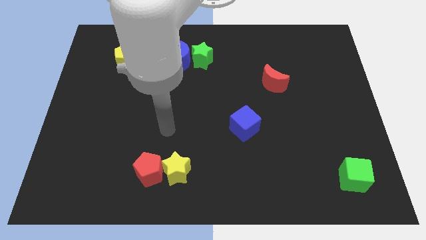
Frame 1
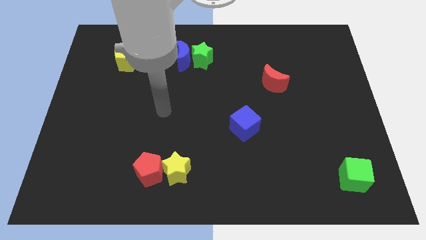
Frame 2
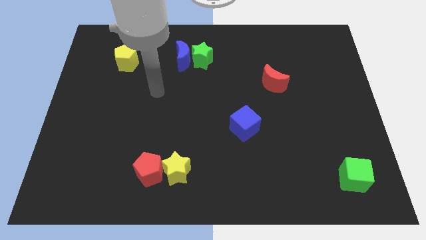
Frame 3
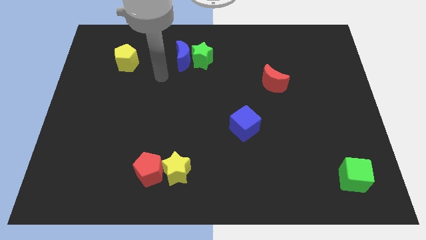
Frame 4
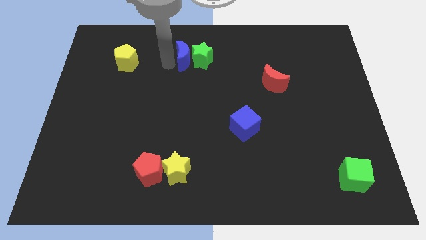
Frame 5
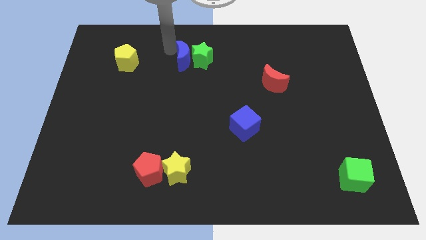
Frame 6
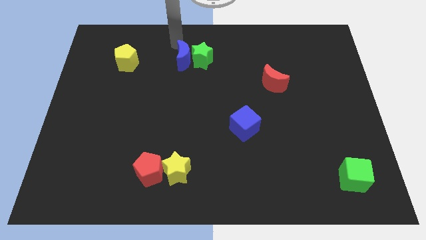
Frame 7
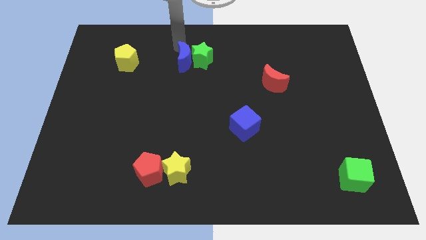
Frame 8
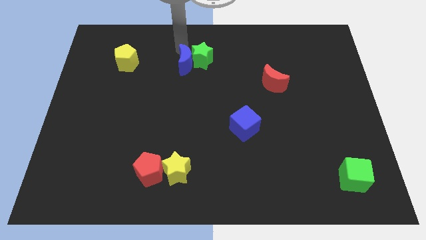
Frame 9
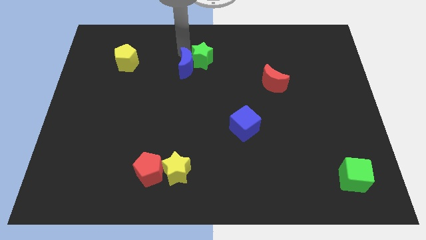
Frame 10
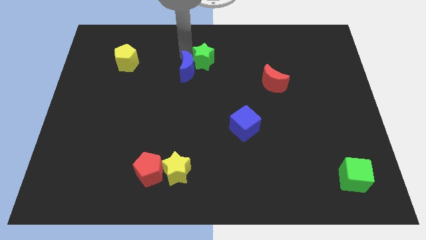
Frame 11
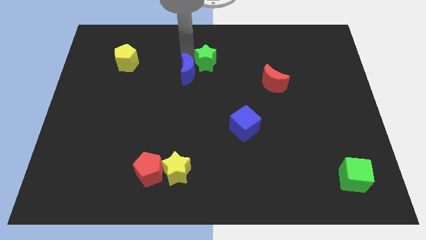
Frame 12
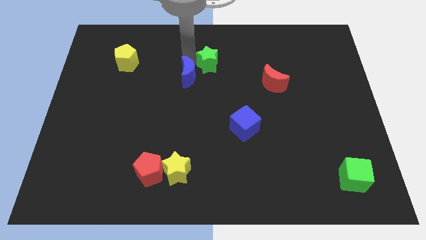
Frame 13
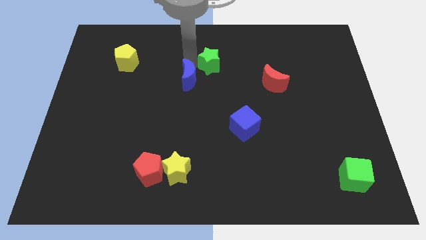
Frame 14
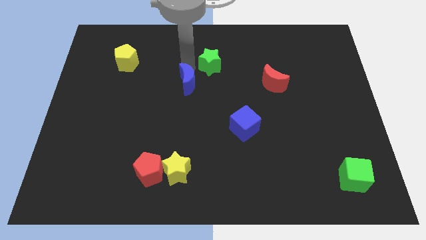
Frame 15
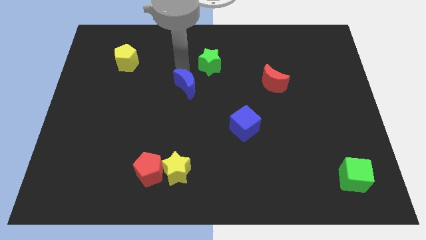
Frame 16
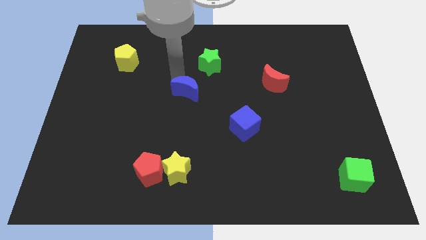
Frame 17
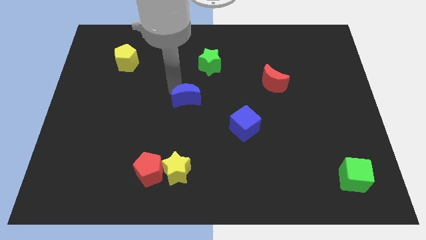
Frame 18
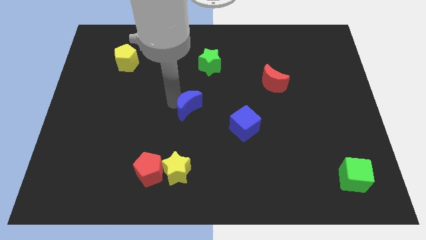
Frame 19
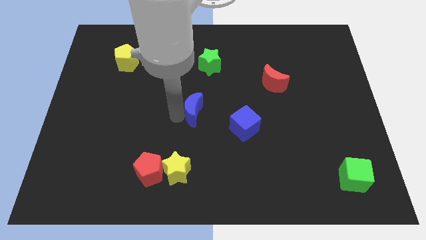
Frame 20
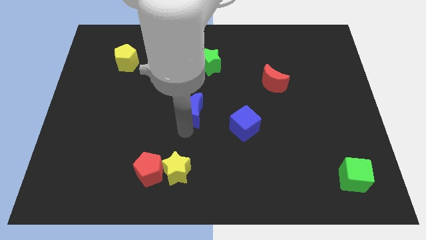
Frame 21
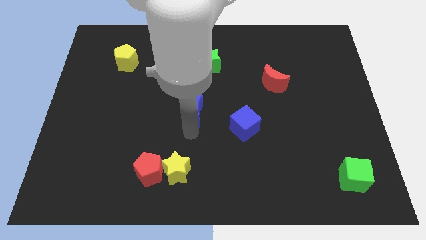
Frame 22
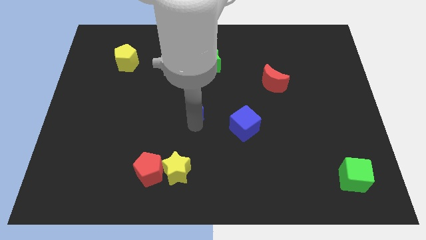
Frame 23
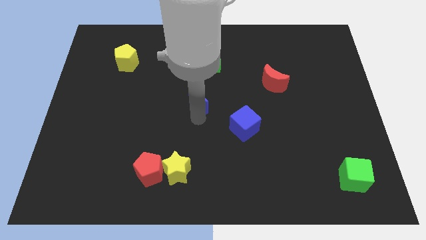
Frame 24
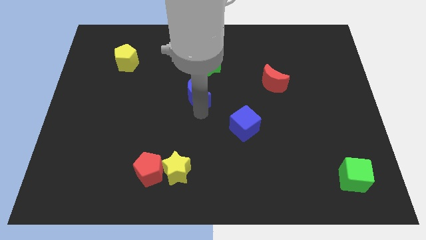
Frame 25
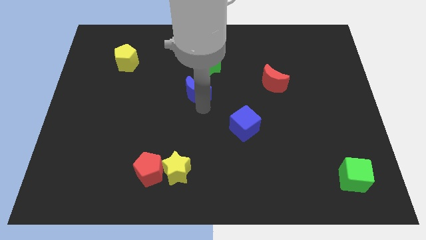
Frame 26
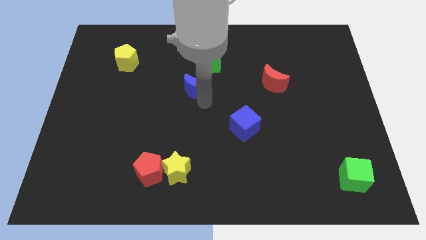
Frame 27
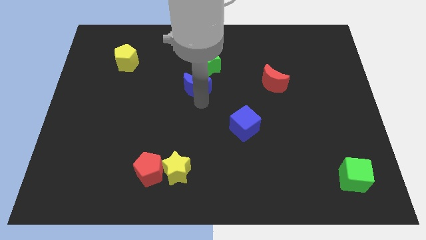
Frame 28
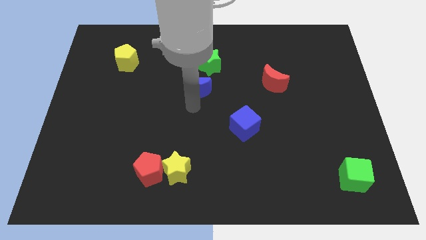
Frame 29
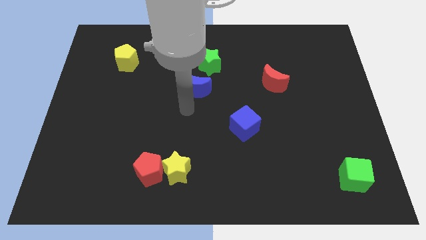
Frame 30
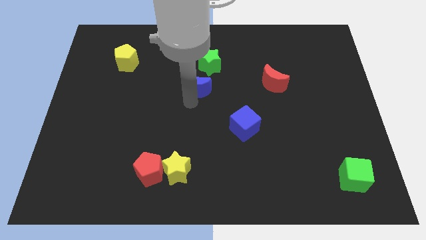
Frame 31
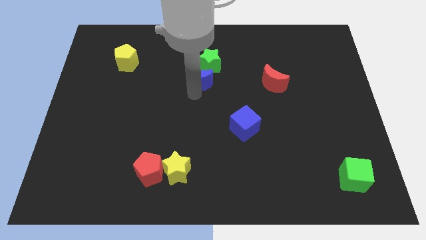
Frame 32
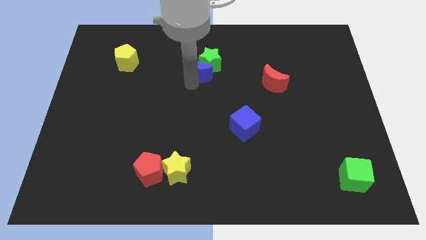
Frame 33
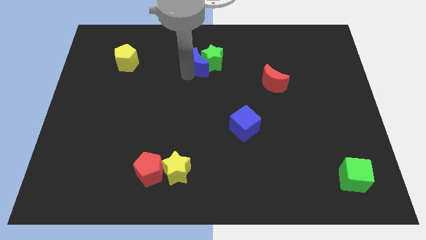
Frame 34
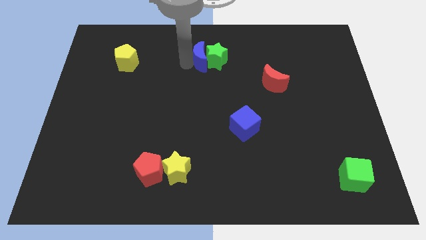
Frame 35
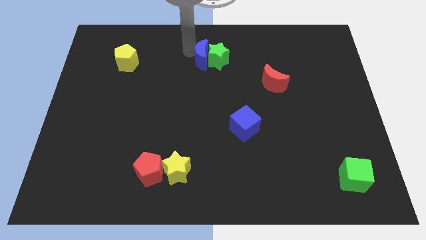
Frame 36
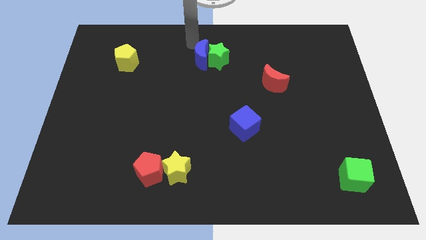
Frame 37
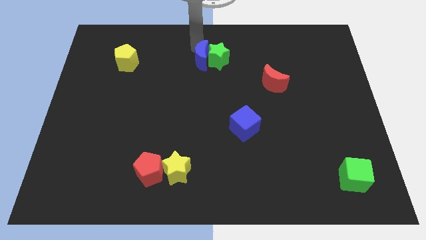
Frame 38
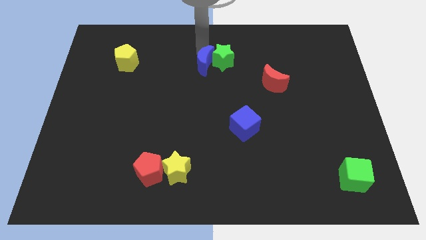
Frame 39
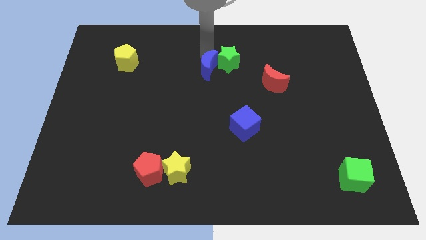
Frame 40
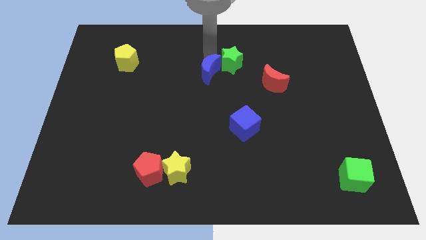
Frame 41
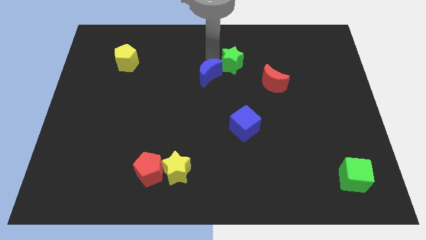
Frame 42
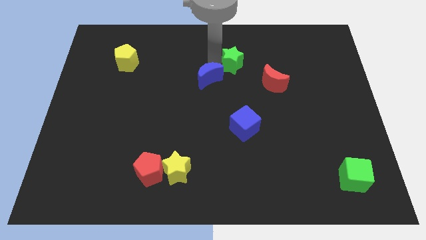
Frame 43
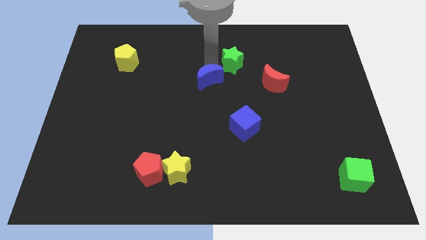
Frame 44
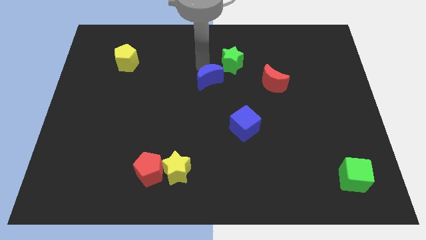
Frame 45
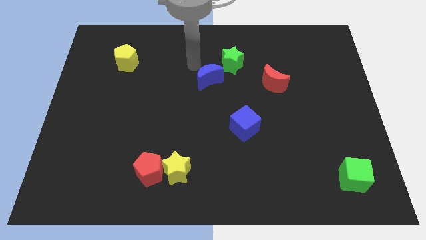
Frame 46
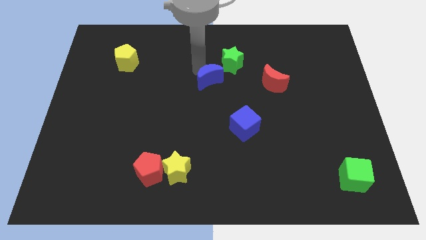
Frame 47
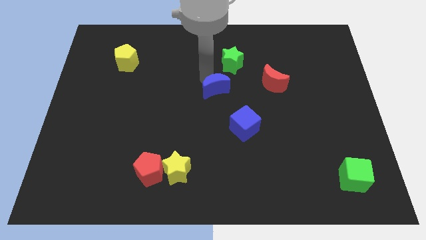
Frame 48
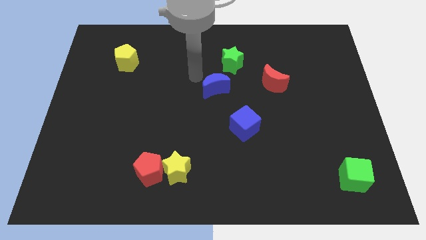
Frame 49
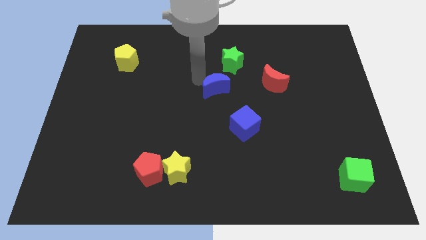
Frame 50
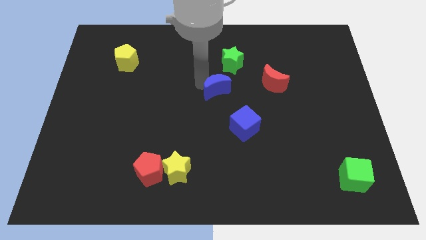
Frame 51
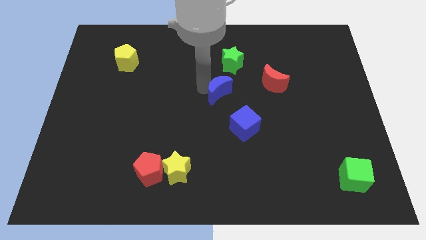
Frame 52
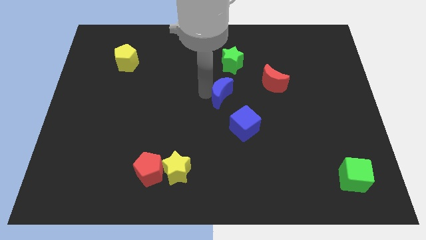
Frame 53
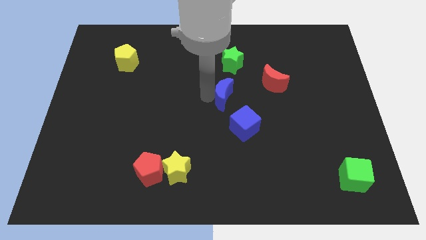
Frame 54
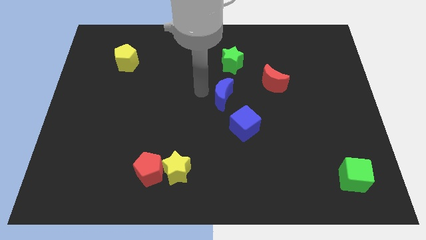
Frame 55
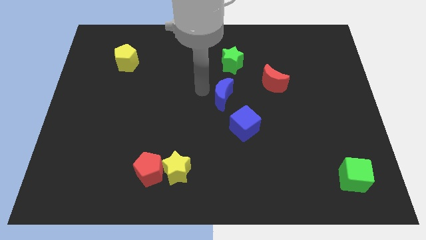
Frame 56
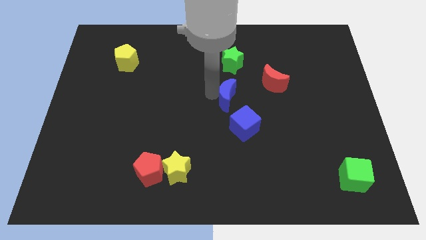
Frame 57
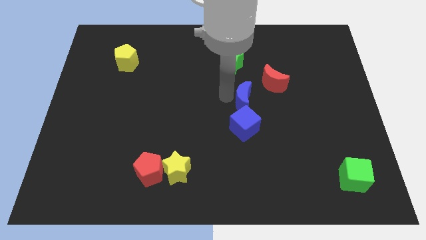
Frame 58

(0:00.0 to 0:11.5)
move the blue moon down and right

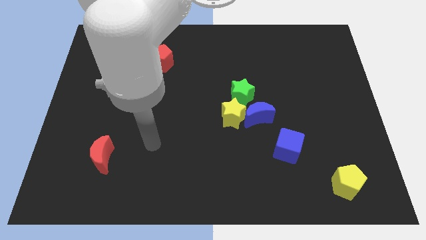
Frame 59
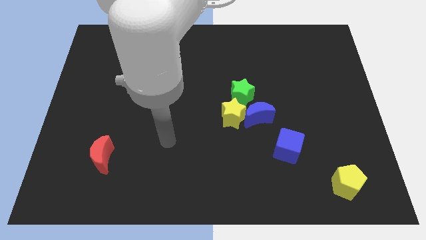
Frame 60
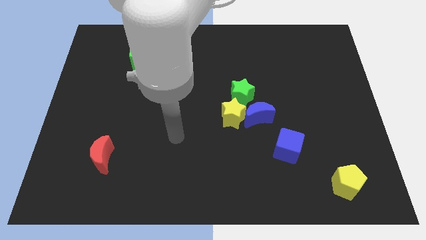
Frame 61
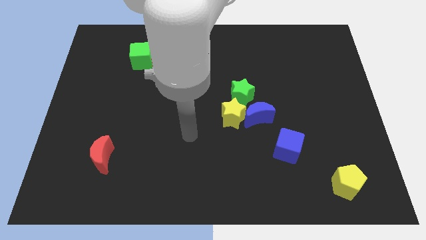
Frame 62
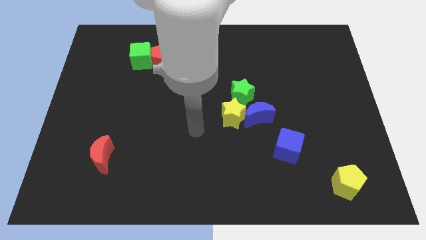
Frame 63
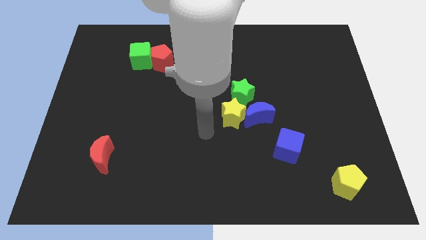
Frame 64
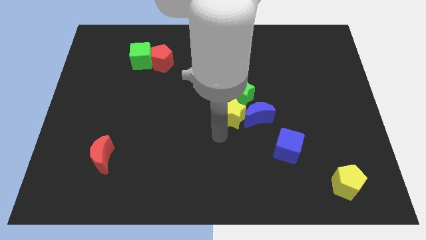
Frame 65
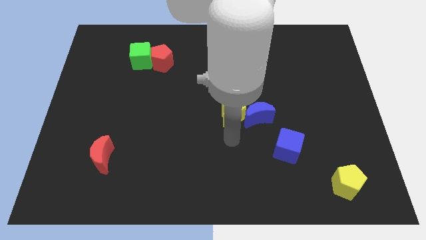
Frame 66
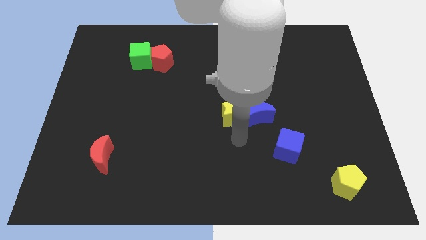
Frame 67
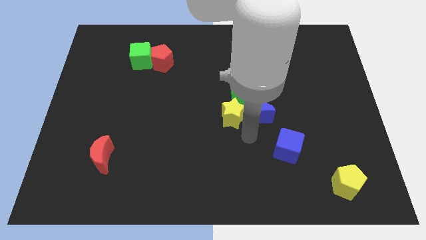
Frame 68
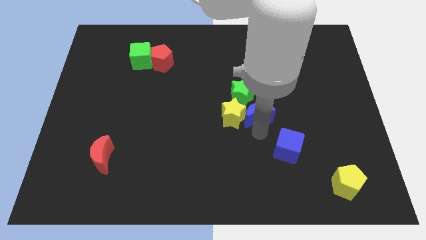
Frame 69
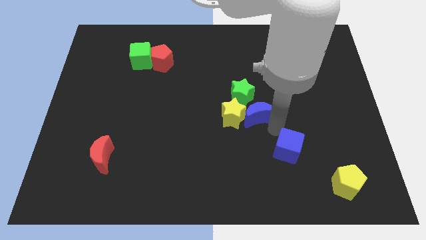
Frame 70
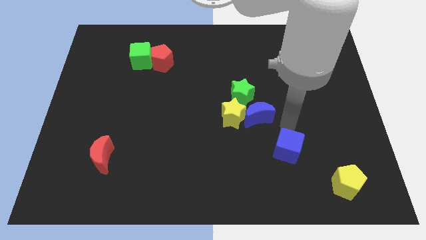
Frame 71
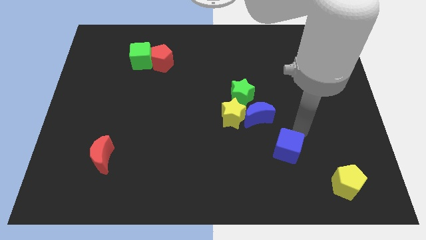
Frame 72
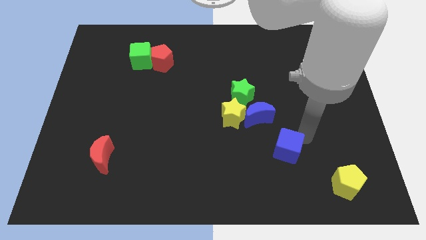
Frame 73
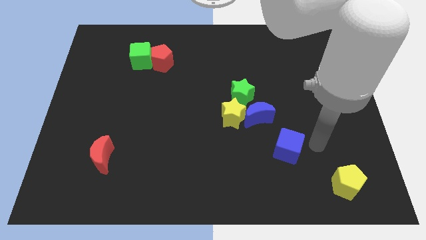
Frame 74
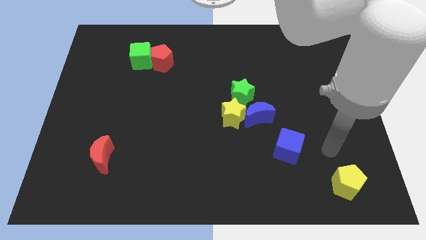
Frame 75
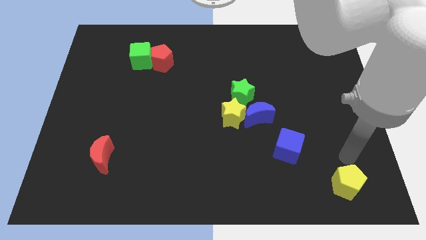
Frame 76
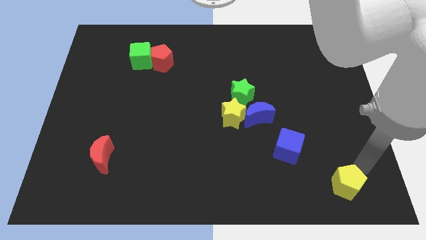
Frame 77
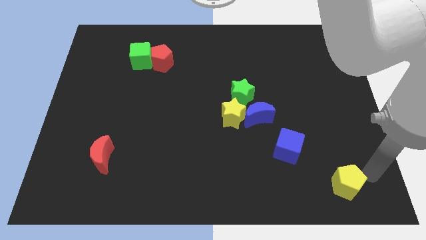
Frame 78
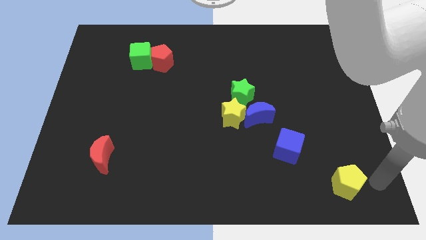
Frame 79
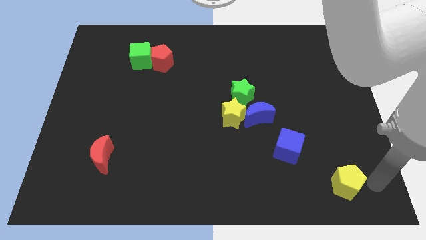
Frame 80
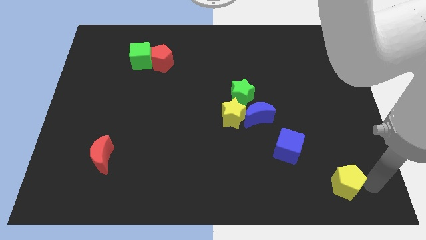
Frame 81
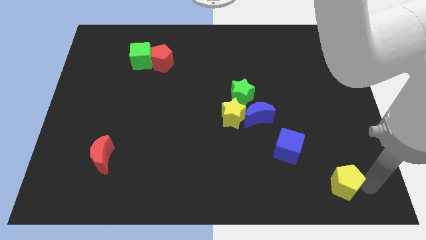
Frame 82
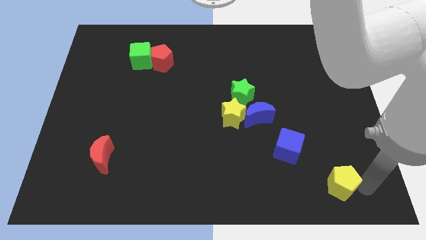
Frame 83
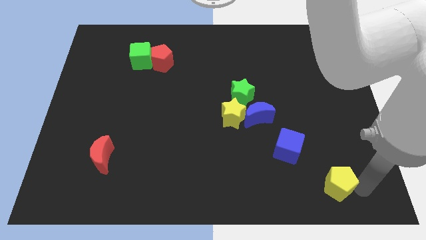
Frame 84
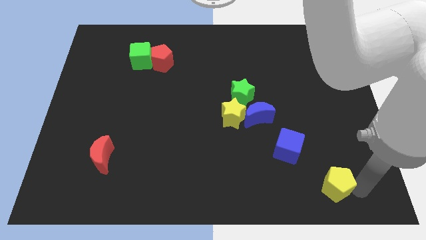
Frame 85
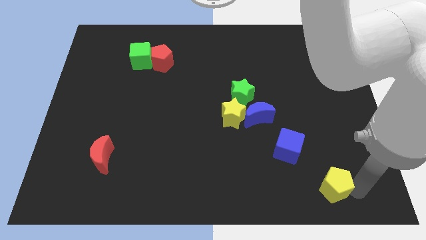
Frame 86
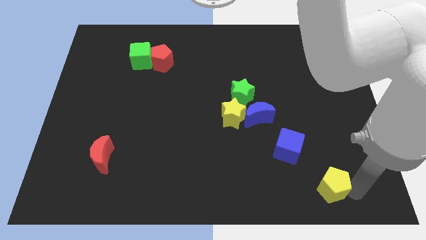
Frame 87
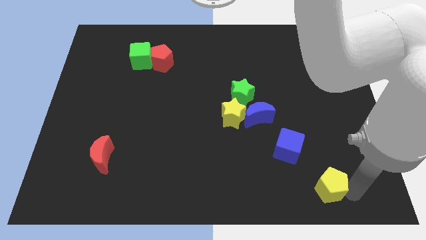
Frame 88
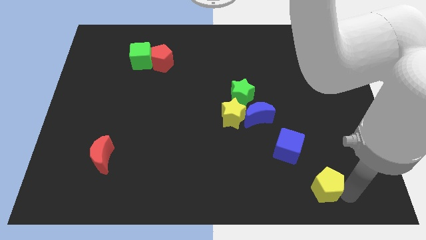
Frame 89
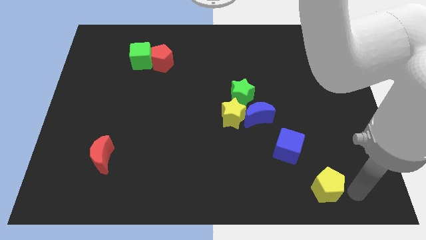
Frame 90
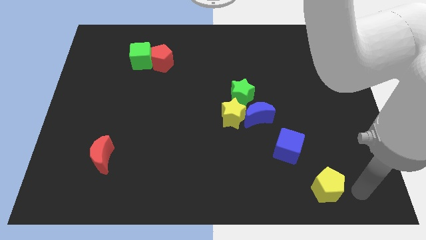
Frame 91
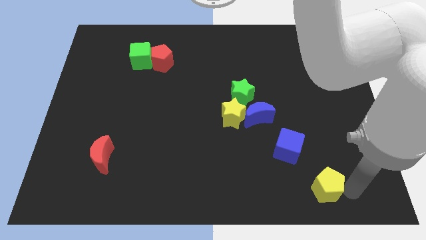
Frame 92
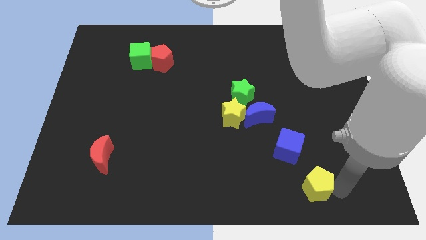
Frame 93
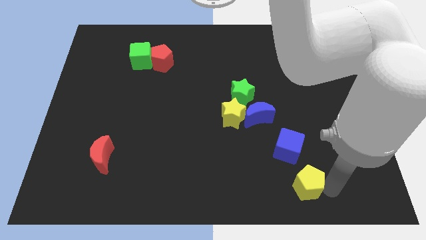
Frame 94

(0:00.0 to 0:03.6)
push the yellow pentagon left a little bit
